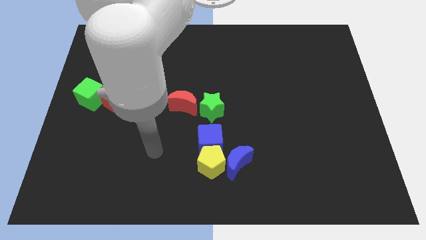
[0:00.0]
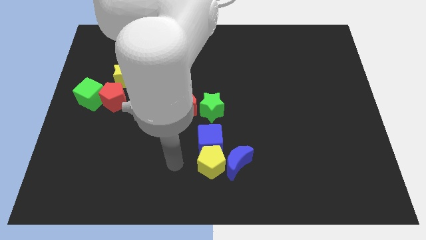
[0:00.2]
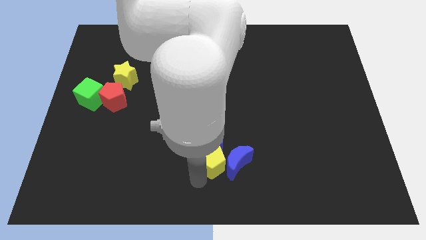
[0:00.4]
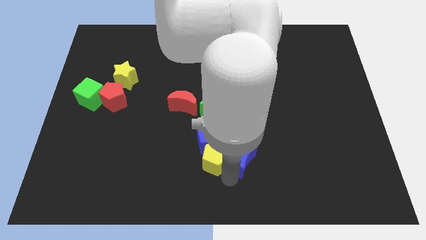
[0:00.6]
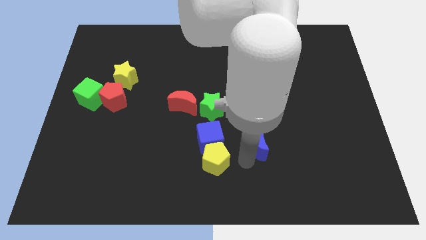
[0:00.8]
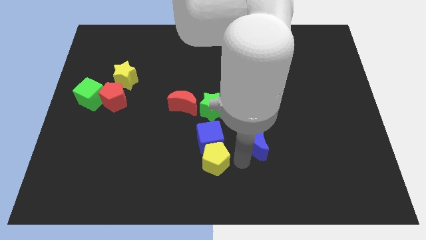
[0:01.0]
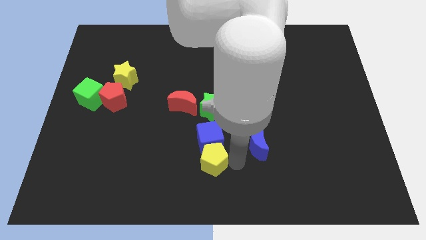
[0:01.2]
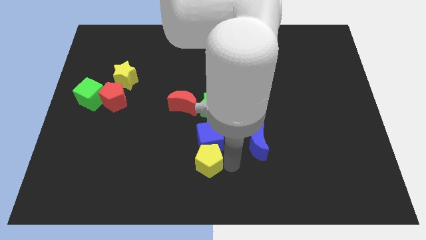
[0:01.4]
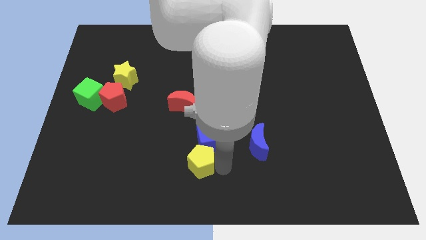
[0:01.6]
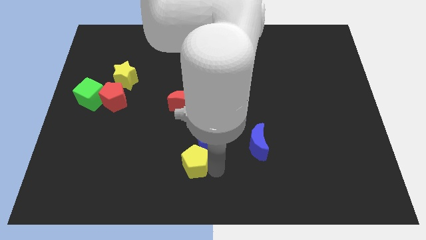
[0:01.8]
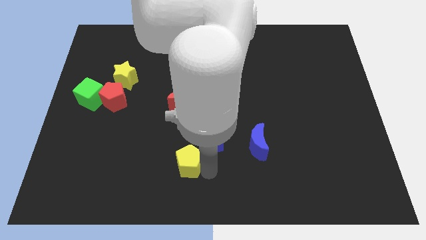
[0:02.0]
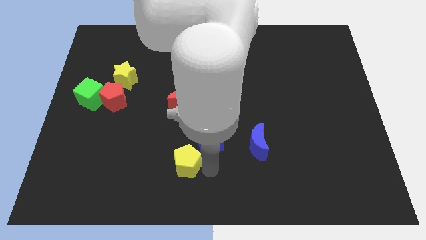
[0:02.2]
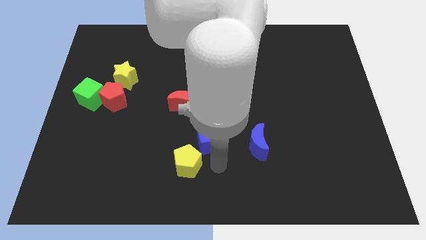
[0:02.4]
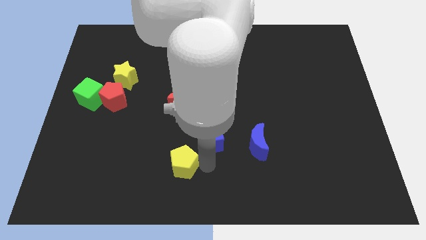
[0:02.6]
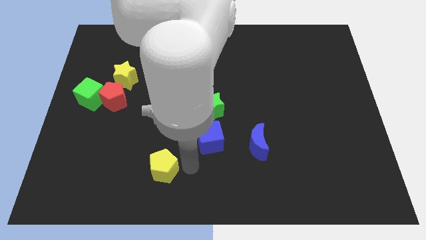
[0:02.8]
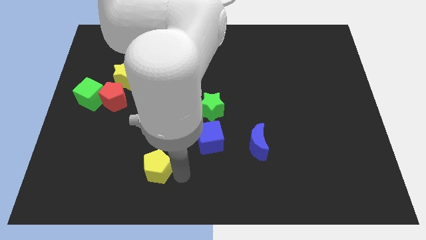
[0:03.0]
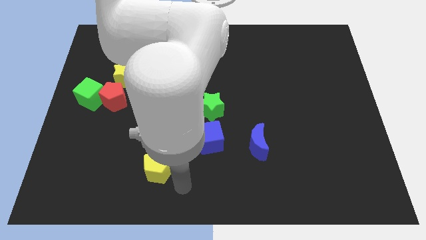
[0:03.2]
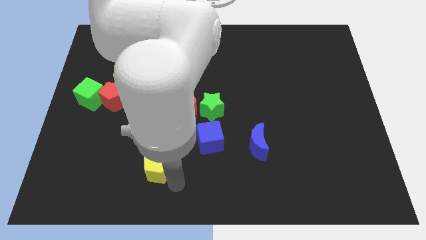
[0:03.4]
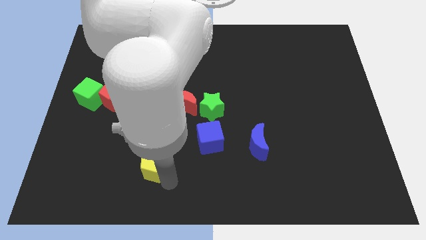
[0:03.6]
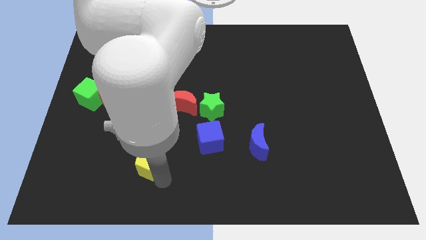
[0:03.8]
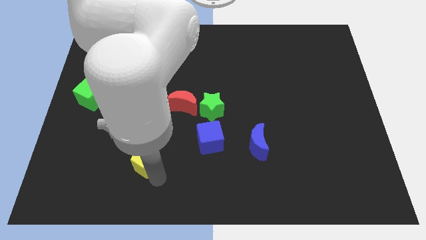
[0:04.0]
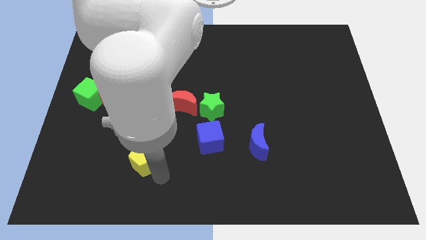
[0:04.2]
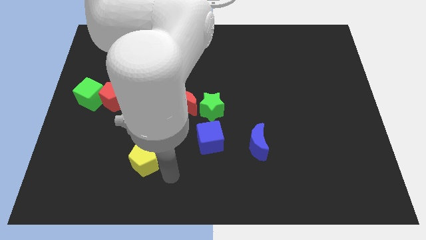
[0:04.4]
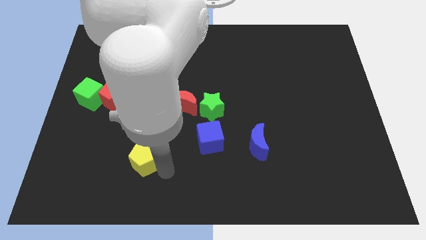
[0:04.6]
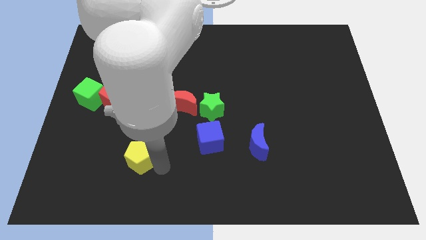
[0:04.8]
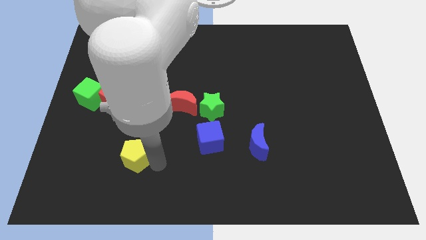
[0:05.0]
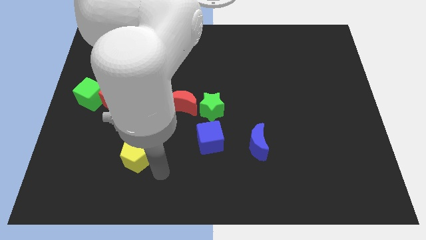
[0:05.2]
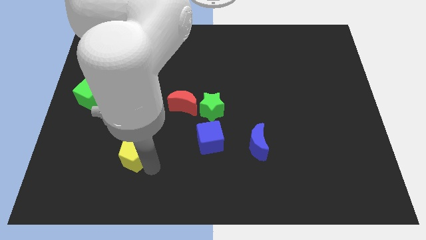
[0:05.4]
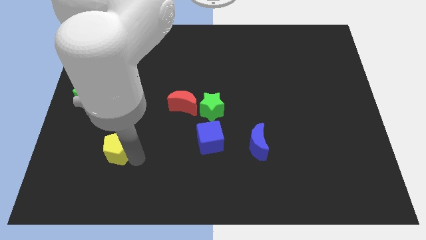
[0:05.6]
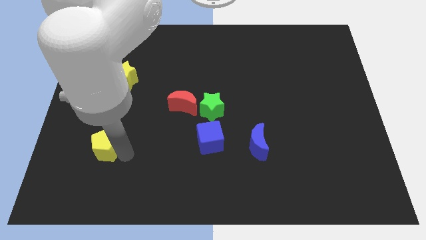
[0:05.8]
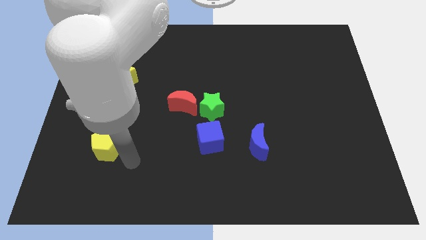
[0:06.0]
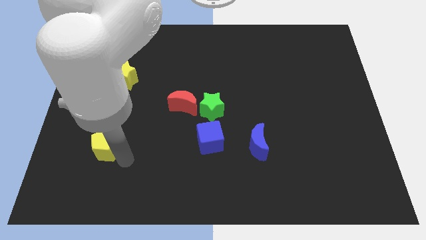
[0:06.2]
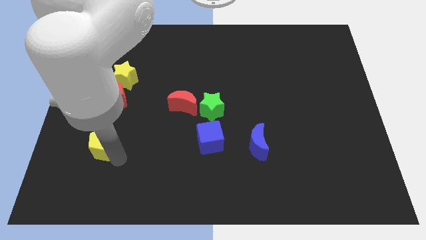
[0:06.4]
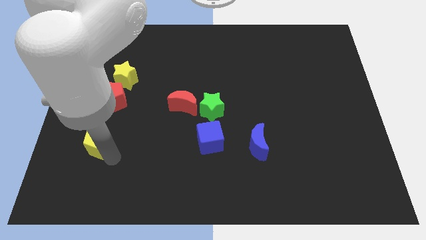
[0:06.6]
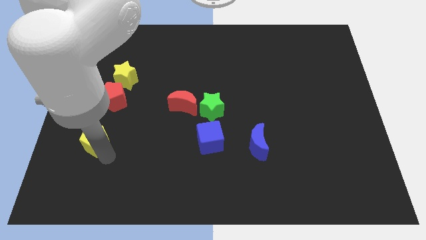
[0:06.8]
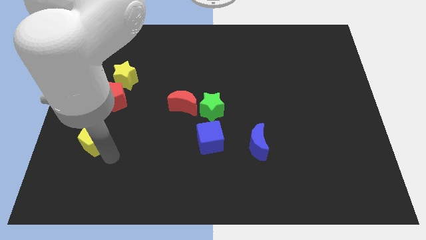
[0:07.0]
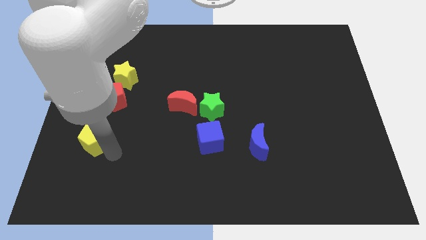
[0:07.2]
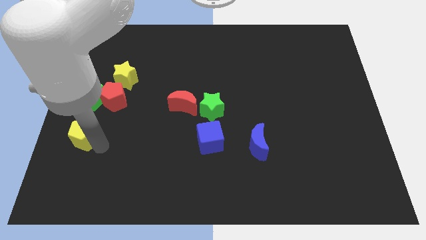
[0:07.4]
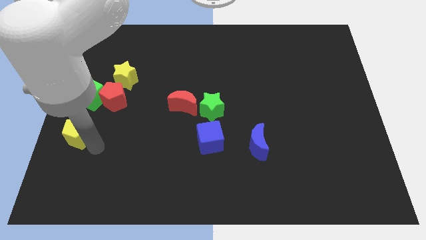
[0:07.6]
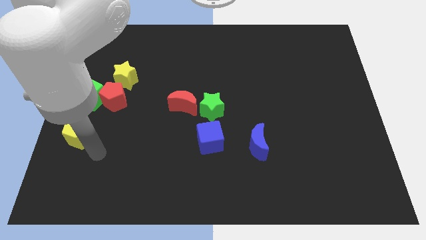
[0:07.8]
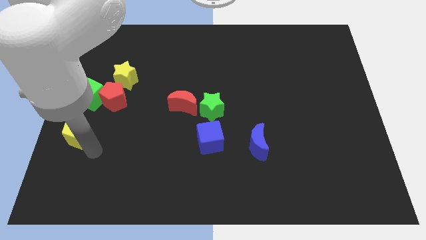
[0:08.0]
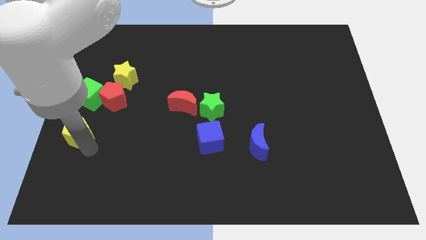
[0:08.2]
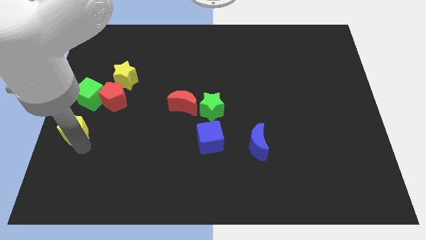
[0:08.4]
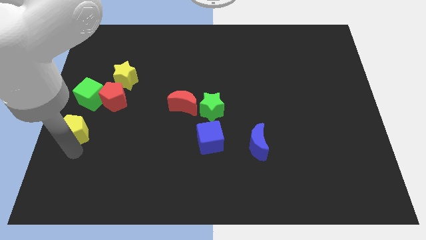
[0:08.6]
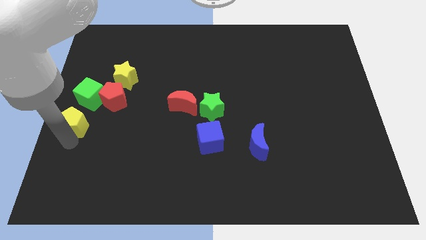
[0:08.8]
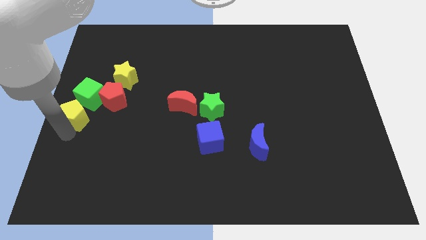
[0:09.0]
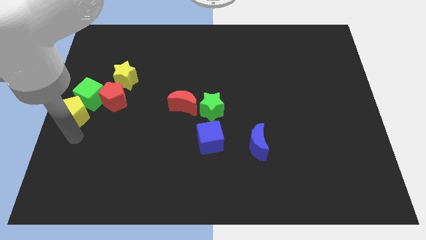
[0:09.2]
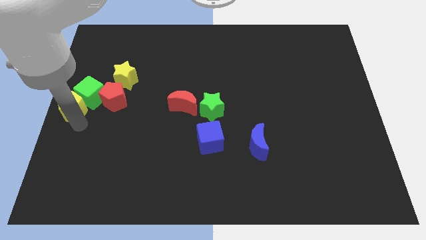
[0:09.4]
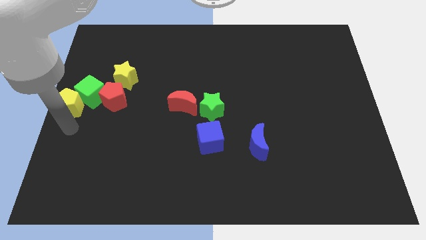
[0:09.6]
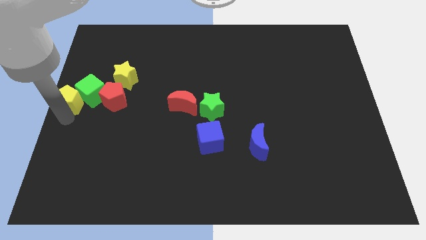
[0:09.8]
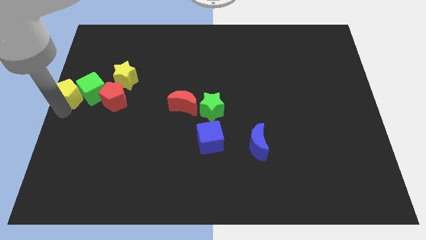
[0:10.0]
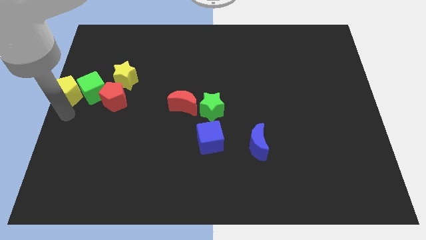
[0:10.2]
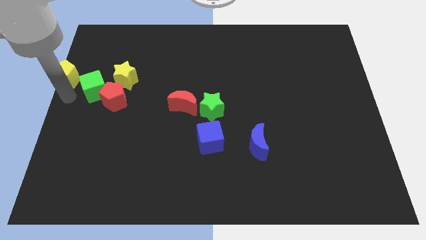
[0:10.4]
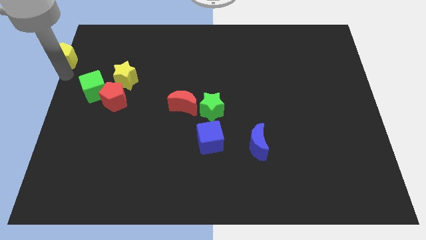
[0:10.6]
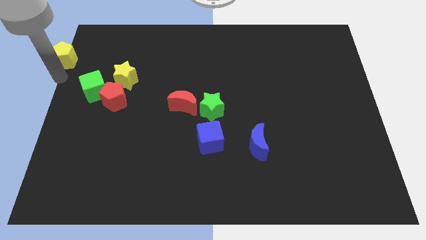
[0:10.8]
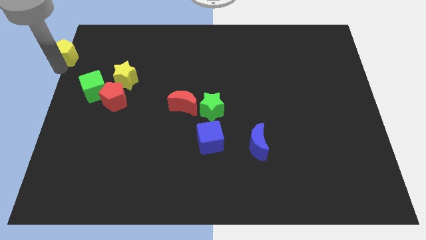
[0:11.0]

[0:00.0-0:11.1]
slide the yellow pentagon to the top left corner

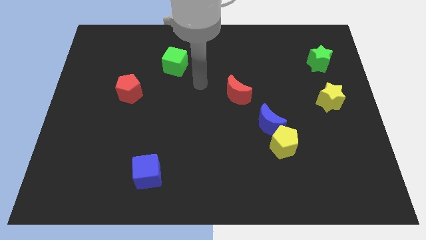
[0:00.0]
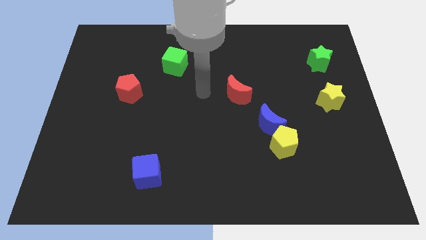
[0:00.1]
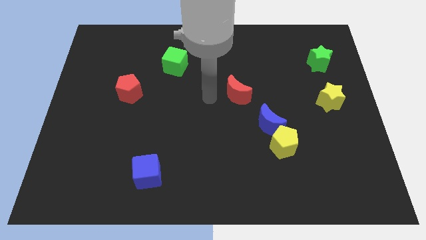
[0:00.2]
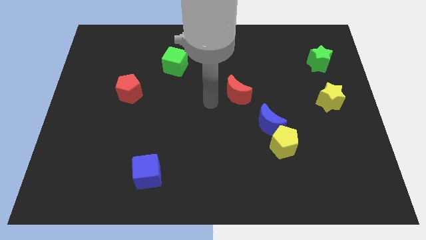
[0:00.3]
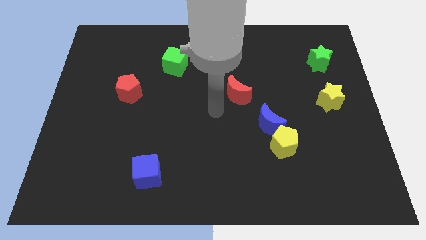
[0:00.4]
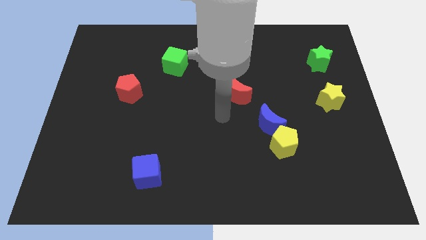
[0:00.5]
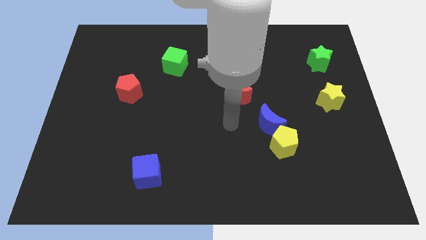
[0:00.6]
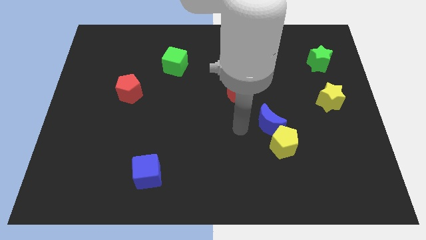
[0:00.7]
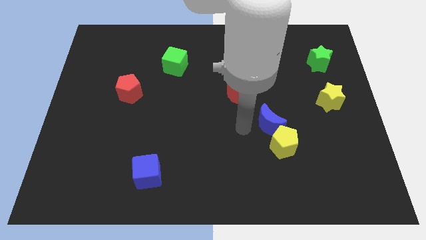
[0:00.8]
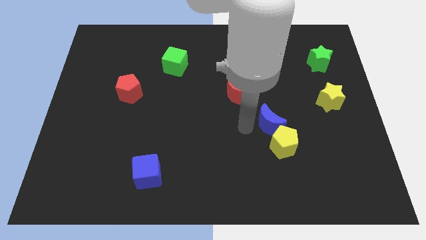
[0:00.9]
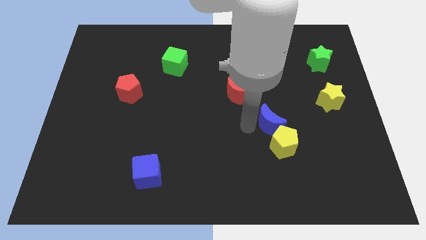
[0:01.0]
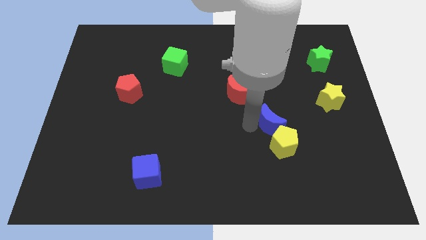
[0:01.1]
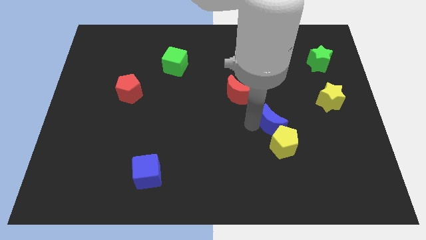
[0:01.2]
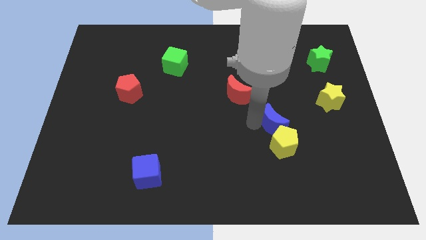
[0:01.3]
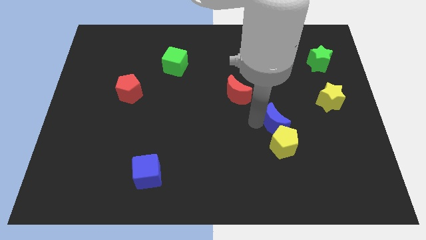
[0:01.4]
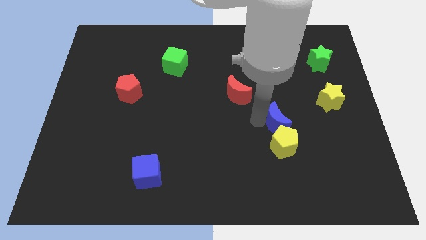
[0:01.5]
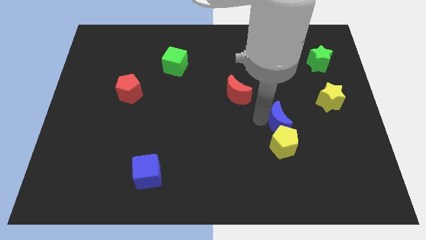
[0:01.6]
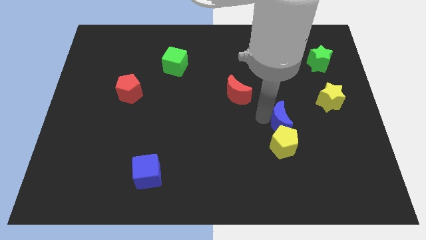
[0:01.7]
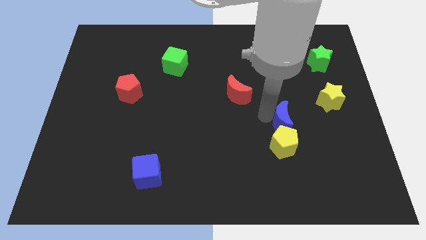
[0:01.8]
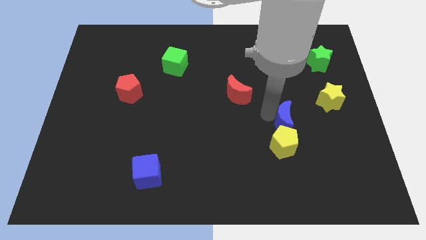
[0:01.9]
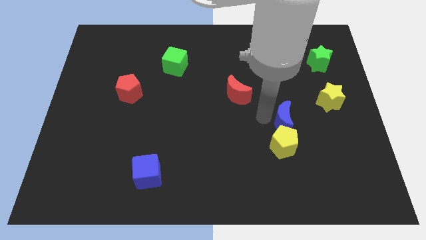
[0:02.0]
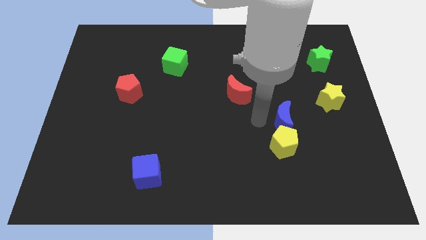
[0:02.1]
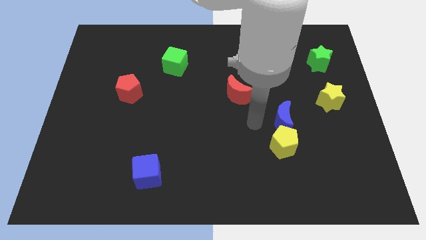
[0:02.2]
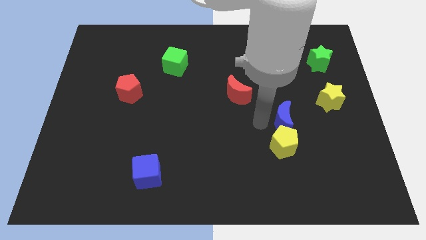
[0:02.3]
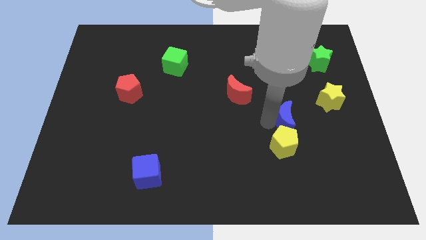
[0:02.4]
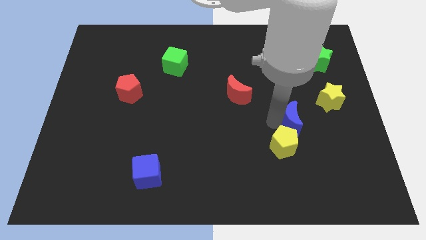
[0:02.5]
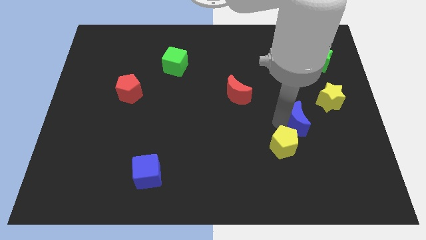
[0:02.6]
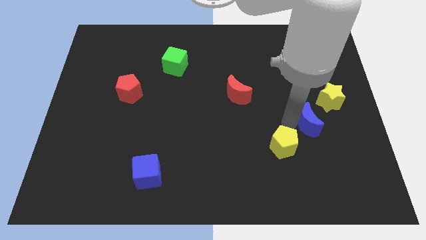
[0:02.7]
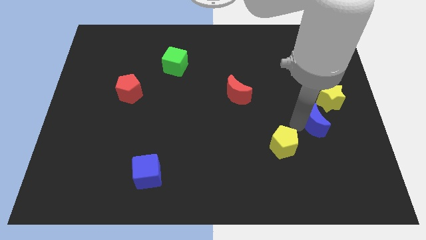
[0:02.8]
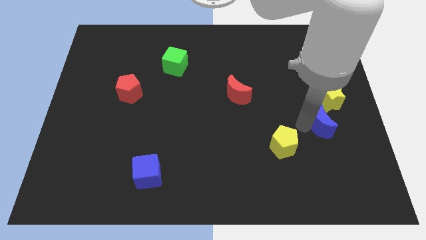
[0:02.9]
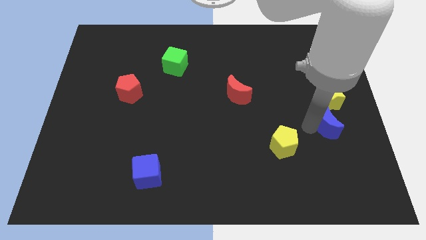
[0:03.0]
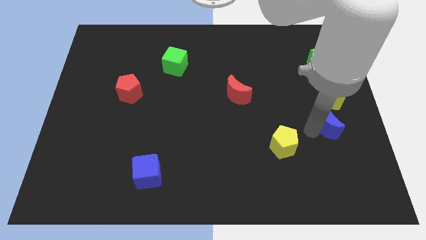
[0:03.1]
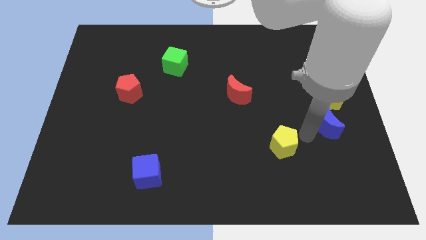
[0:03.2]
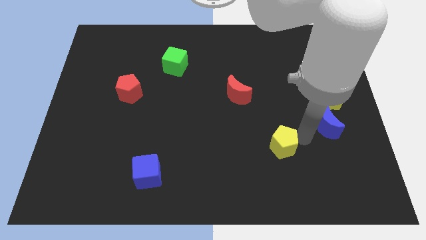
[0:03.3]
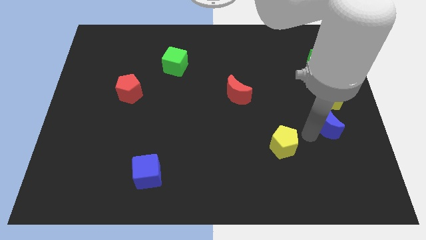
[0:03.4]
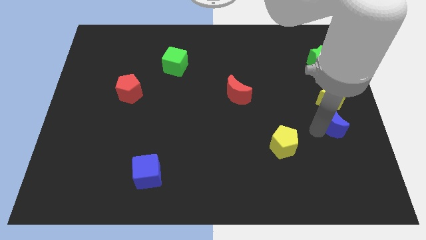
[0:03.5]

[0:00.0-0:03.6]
put the blue moon to the center right
